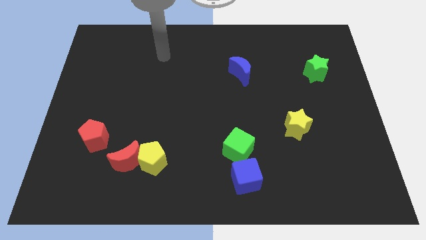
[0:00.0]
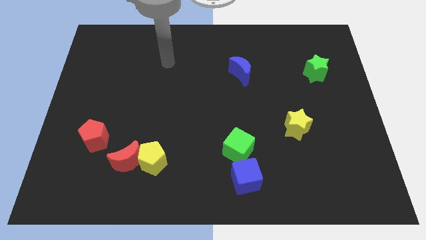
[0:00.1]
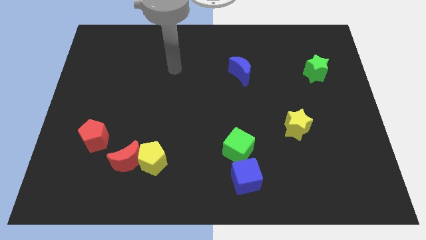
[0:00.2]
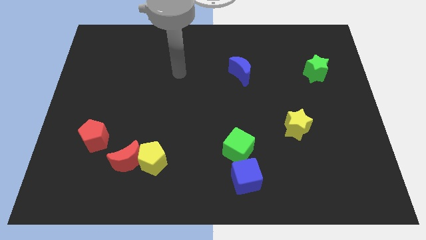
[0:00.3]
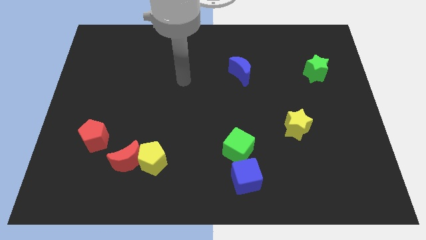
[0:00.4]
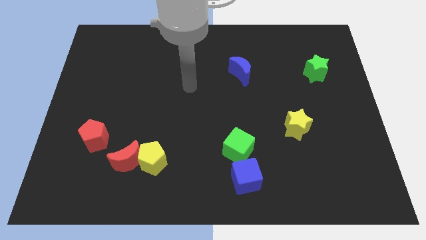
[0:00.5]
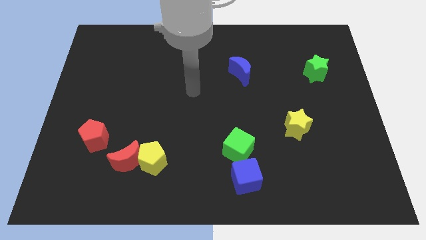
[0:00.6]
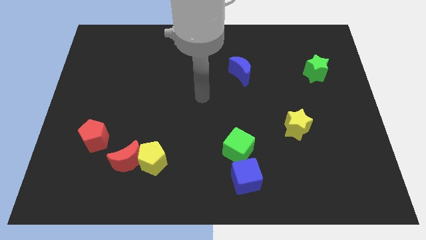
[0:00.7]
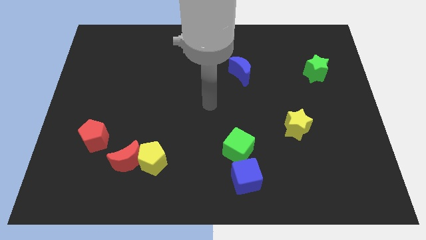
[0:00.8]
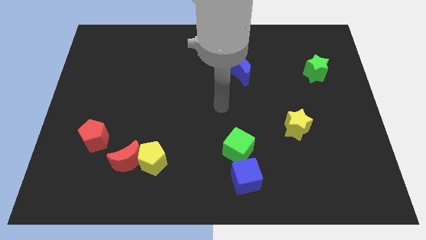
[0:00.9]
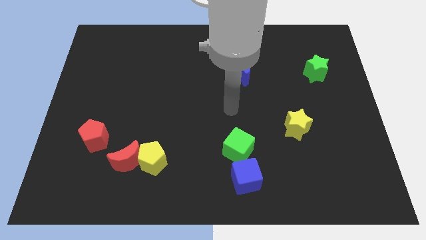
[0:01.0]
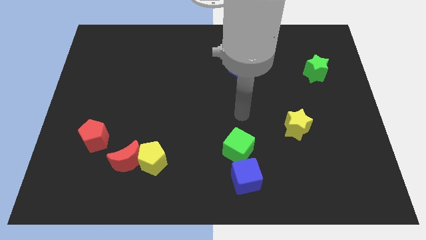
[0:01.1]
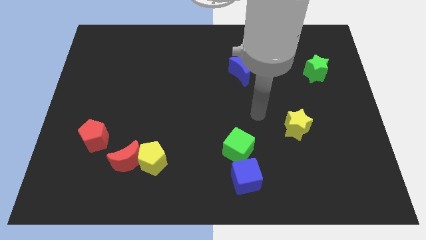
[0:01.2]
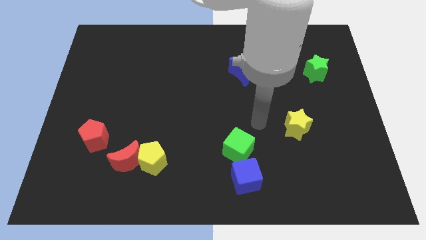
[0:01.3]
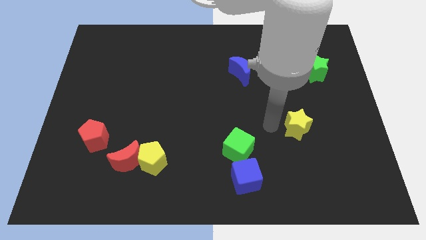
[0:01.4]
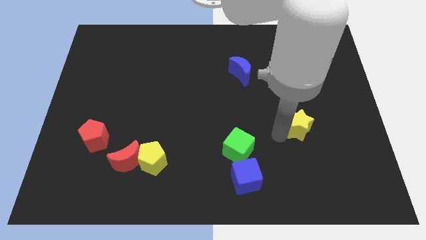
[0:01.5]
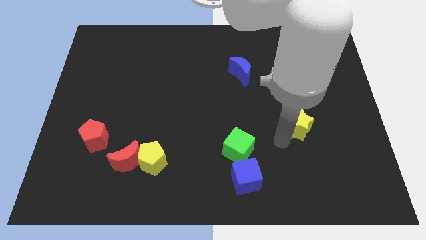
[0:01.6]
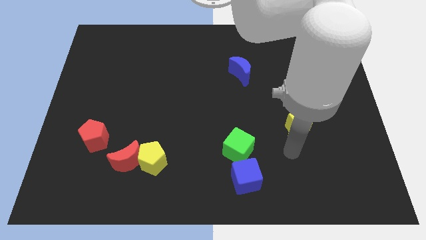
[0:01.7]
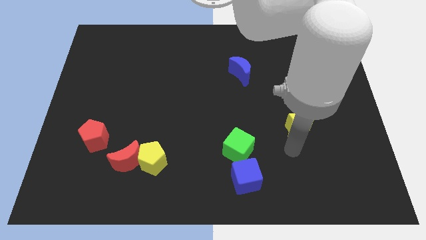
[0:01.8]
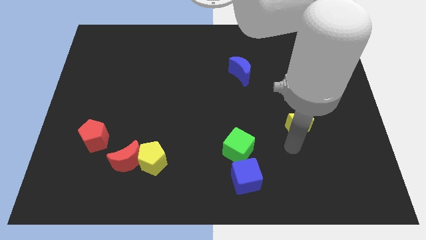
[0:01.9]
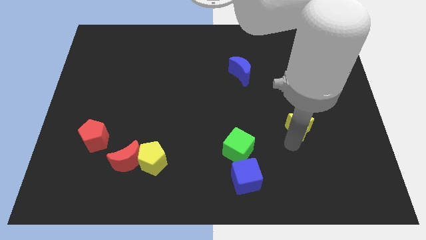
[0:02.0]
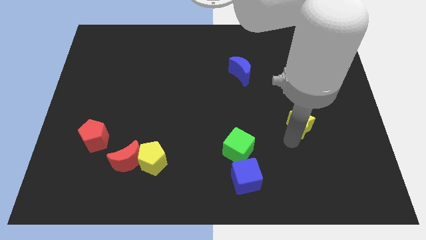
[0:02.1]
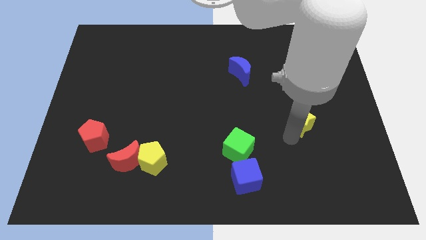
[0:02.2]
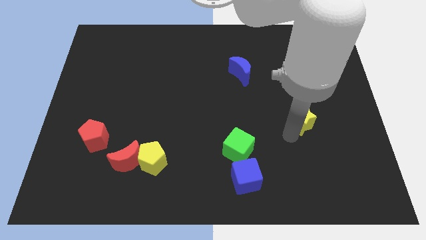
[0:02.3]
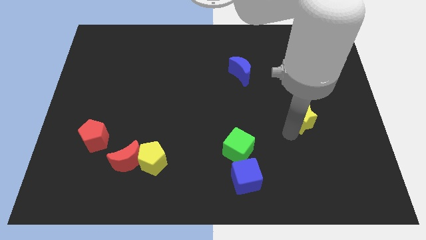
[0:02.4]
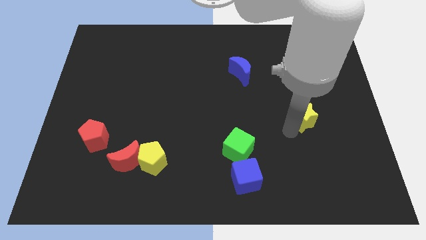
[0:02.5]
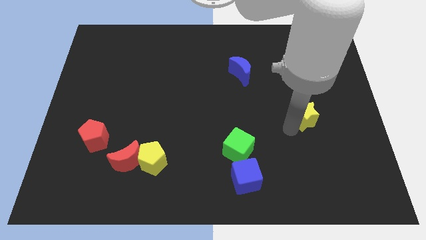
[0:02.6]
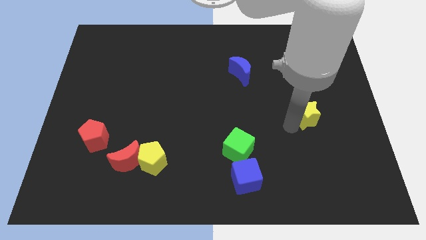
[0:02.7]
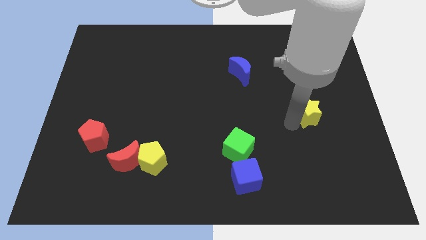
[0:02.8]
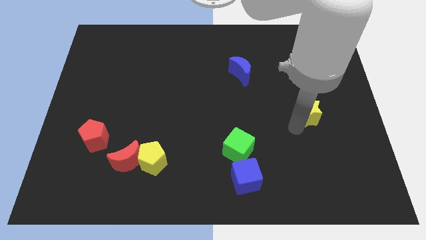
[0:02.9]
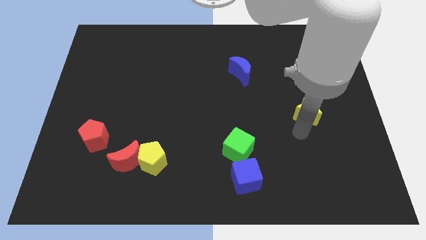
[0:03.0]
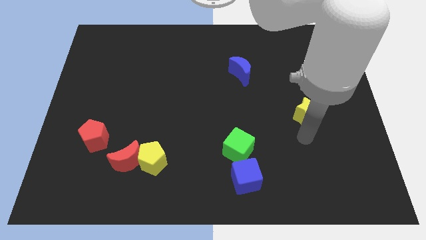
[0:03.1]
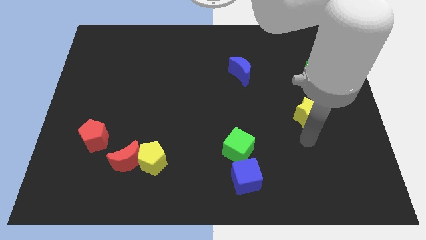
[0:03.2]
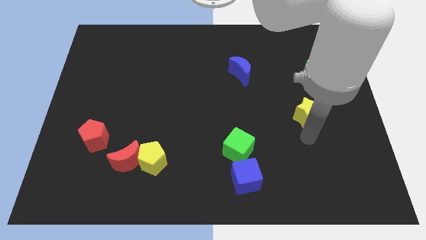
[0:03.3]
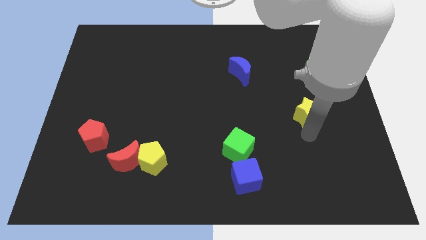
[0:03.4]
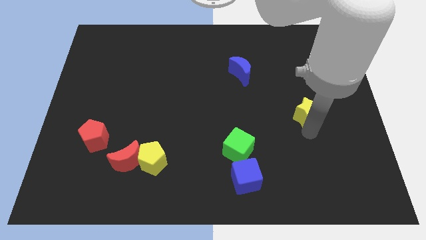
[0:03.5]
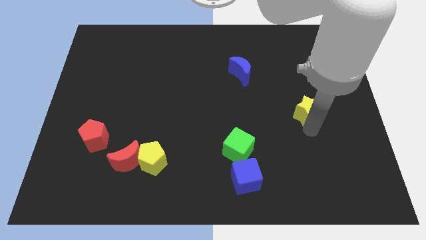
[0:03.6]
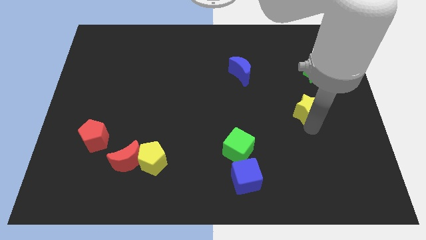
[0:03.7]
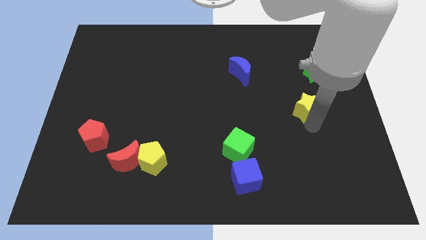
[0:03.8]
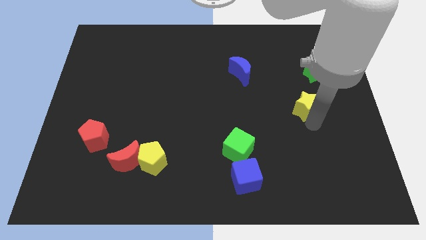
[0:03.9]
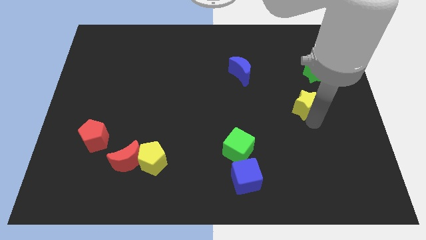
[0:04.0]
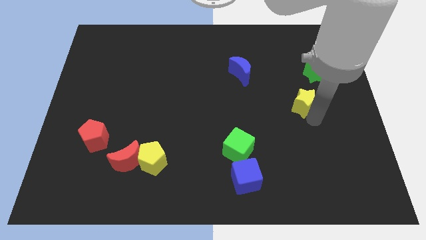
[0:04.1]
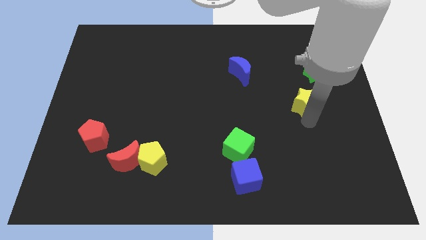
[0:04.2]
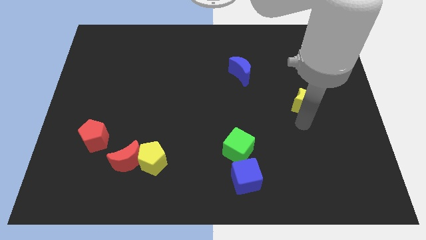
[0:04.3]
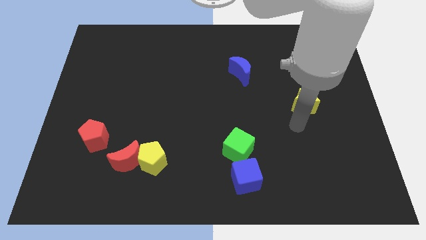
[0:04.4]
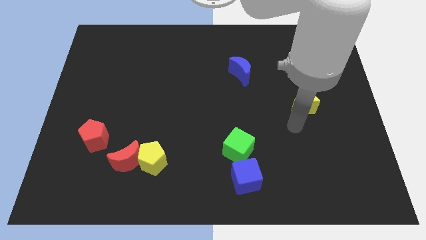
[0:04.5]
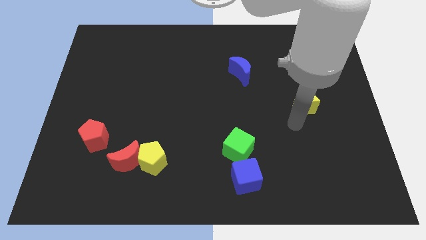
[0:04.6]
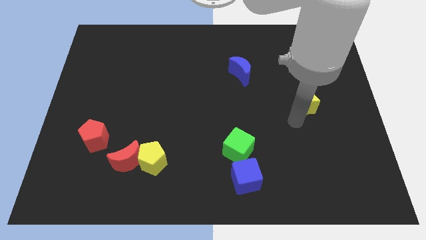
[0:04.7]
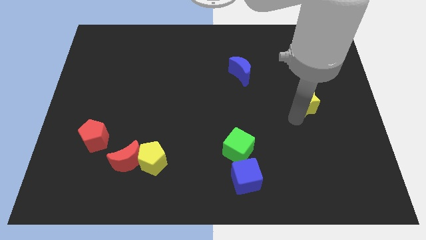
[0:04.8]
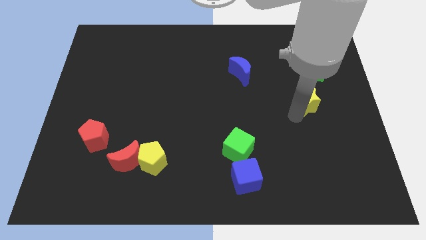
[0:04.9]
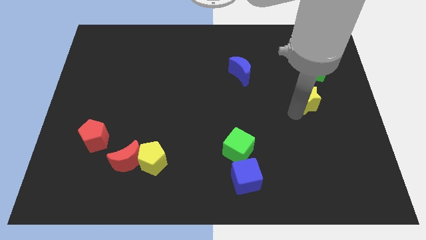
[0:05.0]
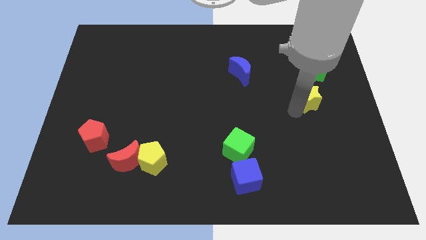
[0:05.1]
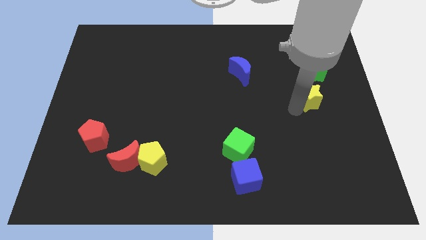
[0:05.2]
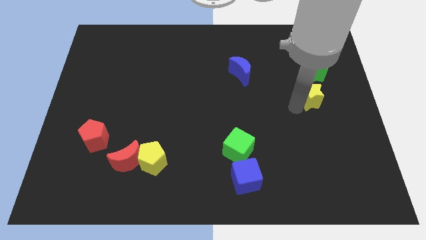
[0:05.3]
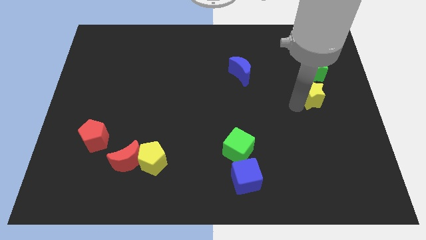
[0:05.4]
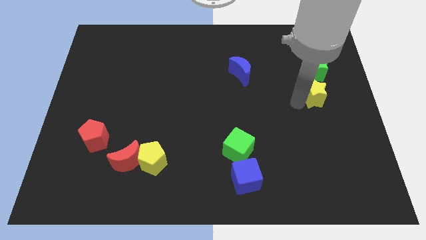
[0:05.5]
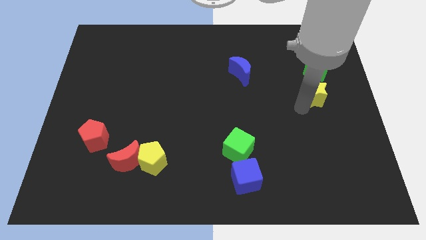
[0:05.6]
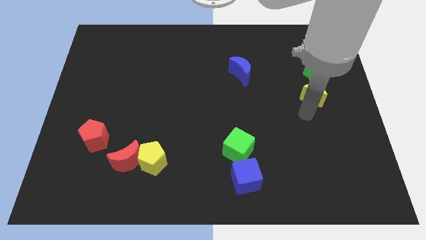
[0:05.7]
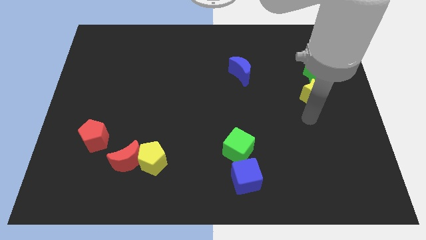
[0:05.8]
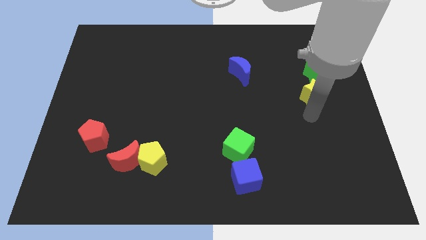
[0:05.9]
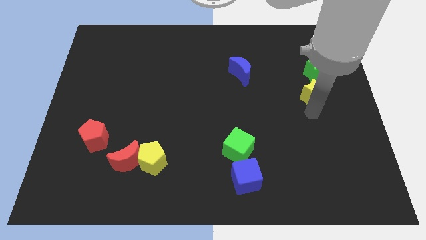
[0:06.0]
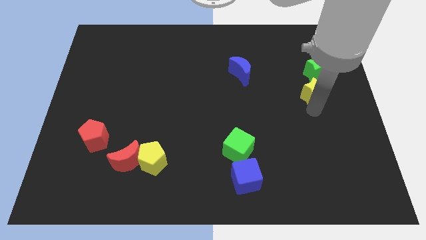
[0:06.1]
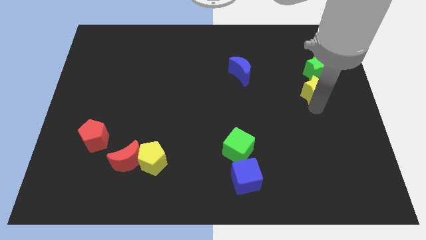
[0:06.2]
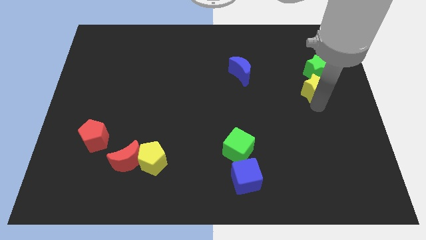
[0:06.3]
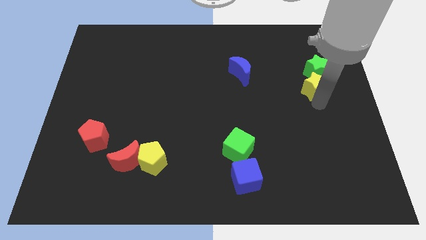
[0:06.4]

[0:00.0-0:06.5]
push the yellow star towards the green star

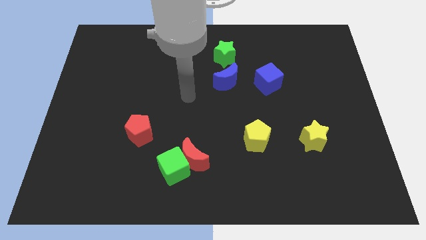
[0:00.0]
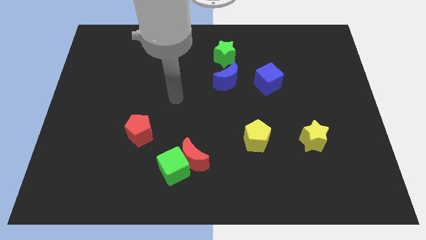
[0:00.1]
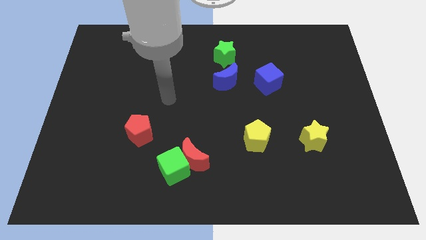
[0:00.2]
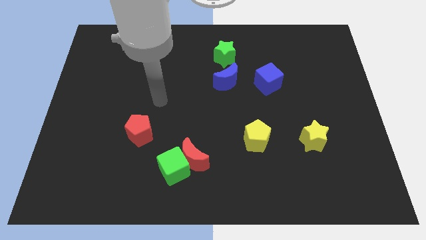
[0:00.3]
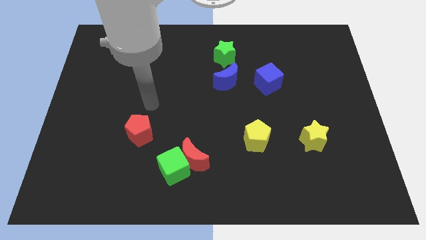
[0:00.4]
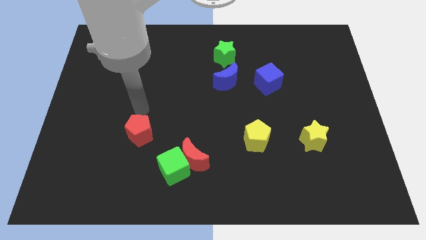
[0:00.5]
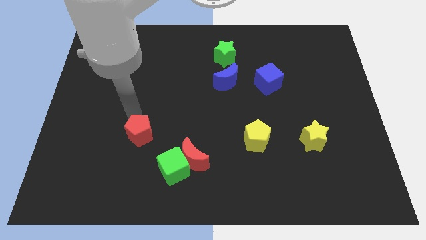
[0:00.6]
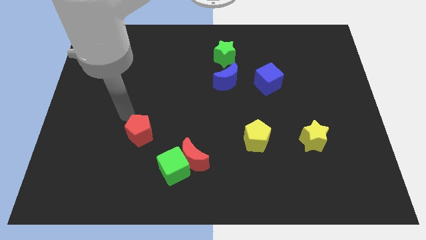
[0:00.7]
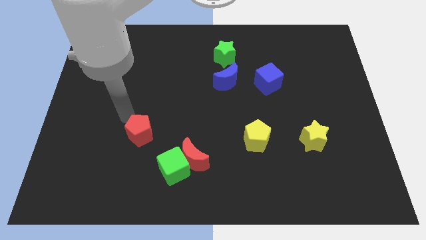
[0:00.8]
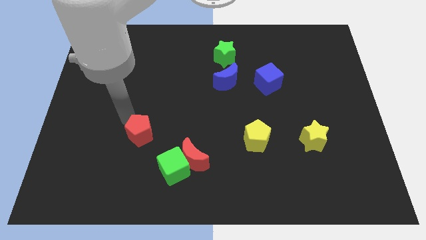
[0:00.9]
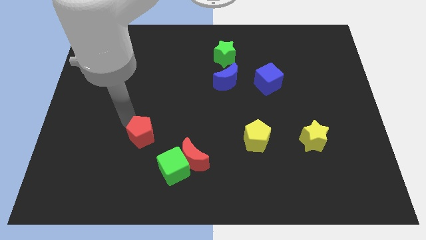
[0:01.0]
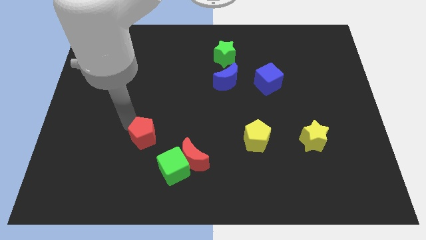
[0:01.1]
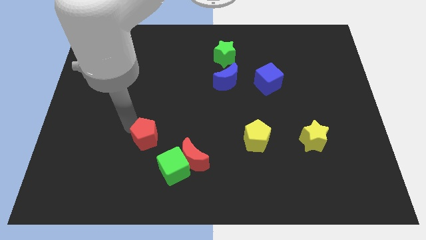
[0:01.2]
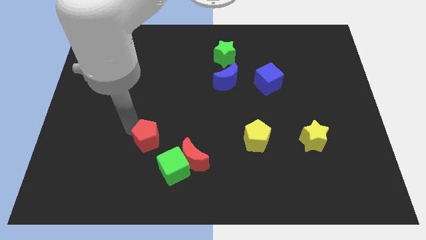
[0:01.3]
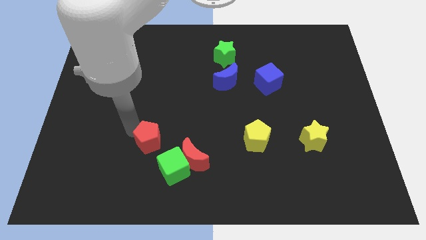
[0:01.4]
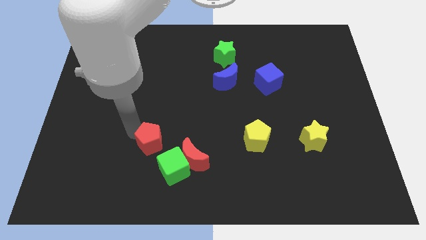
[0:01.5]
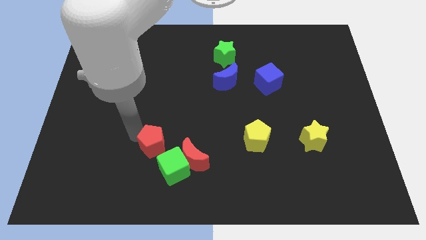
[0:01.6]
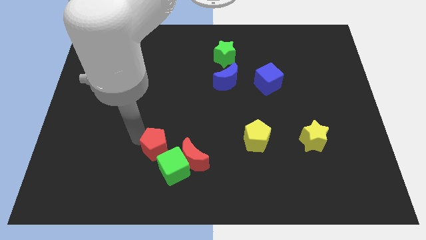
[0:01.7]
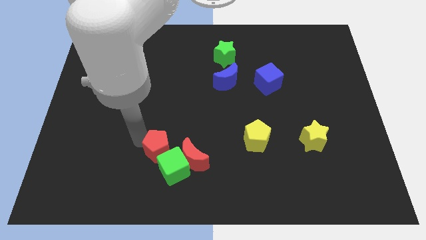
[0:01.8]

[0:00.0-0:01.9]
put the red pentagon to the green cube
